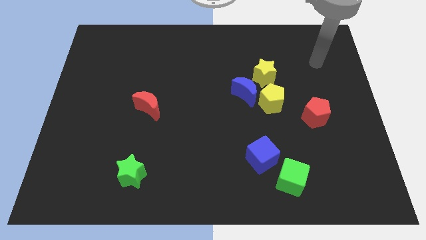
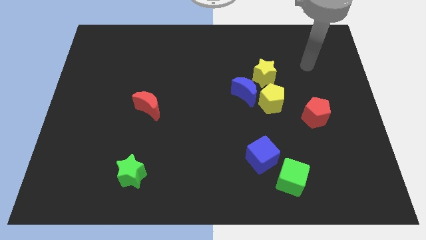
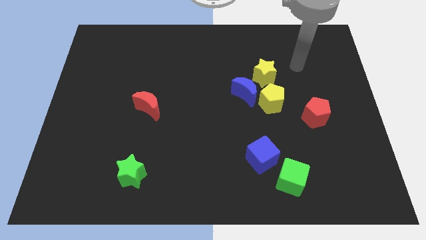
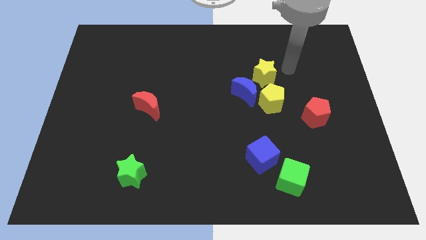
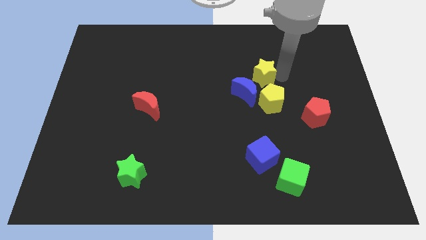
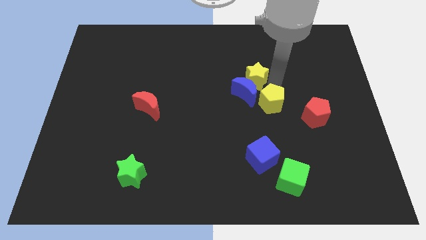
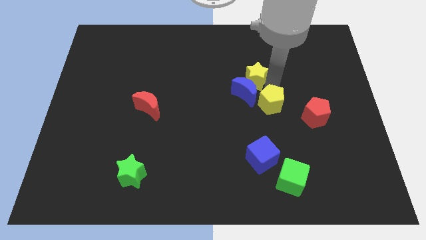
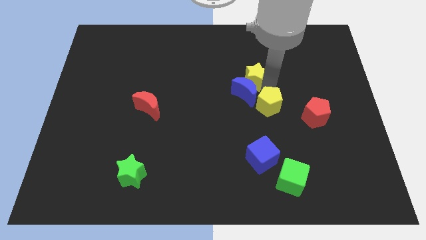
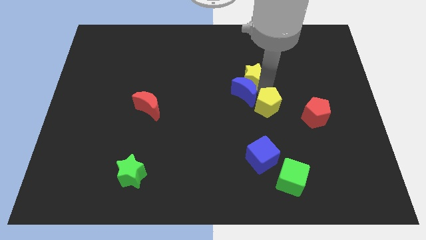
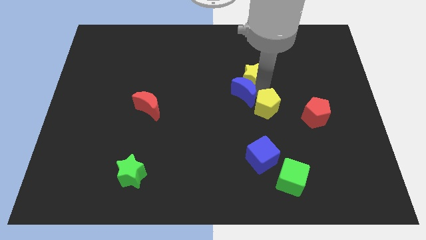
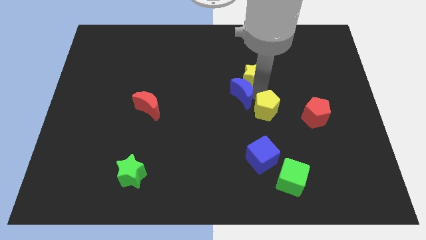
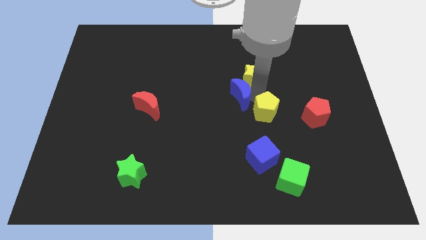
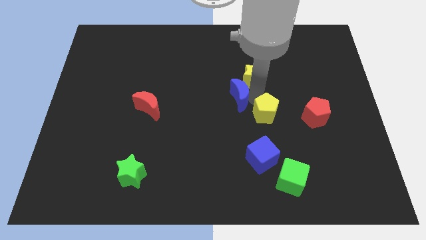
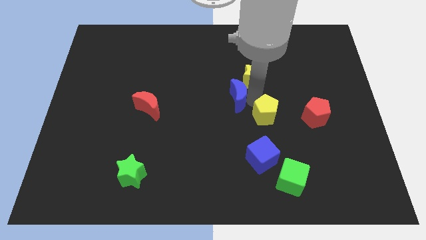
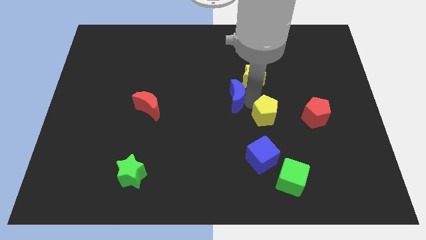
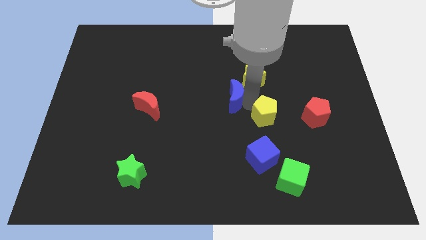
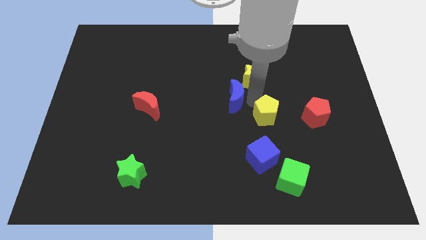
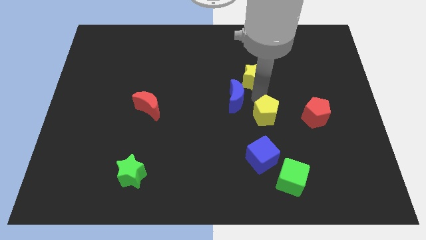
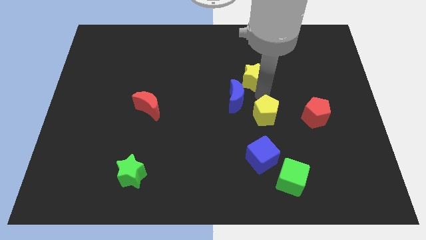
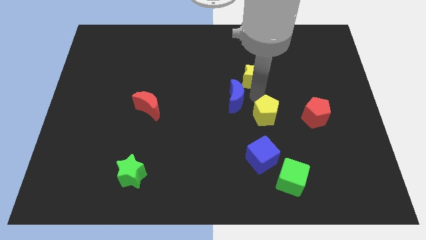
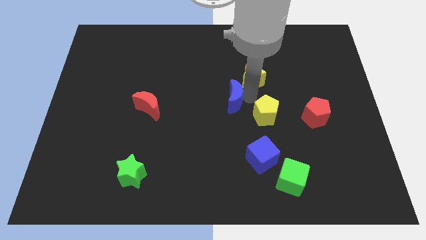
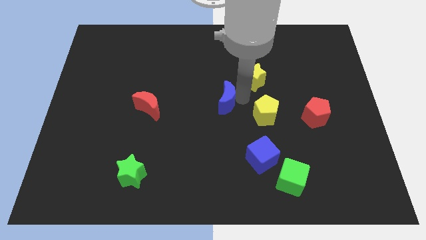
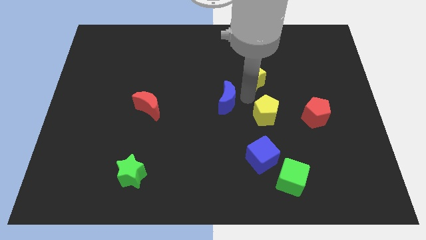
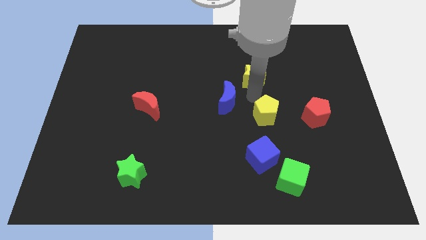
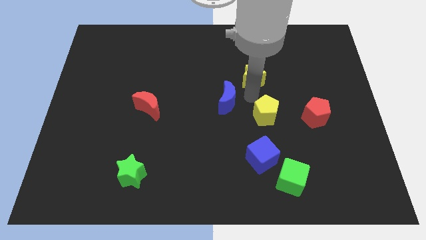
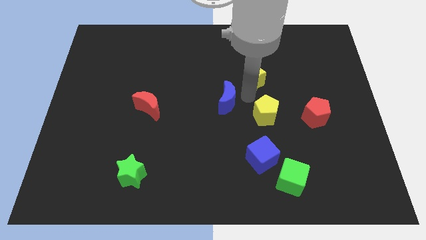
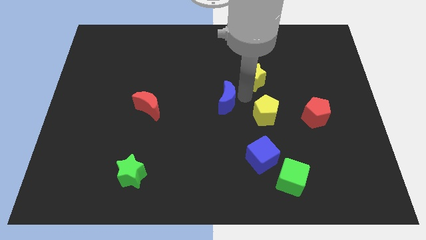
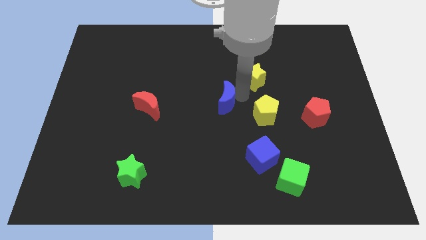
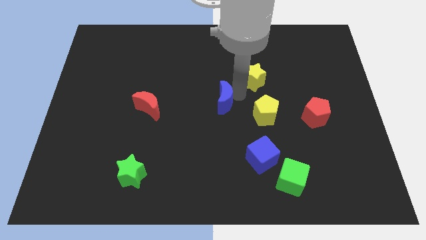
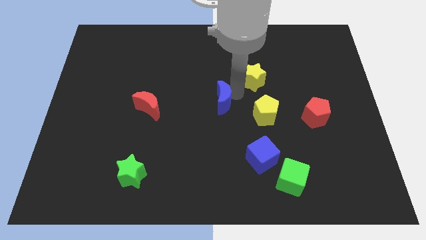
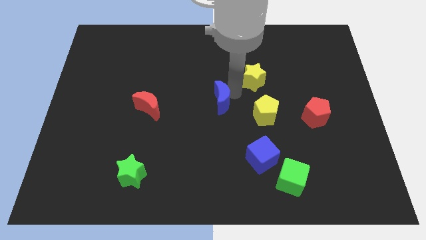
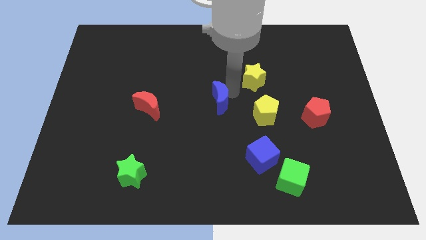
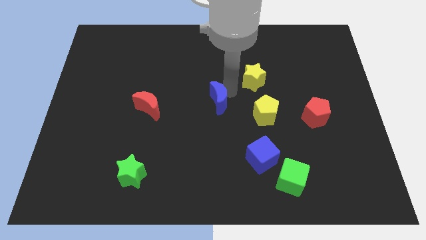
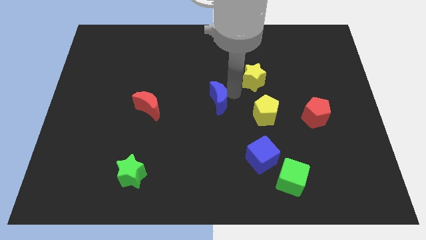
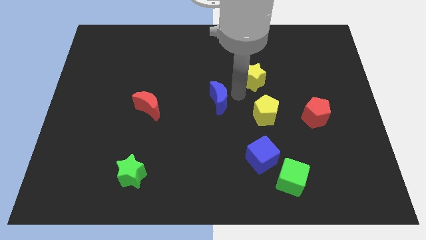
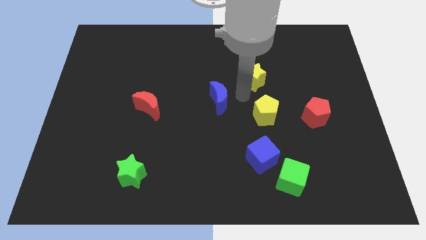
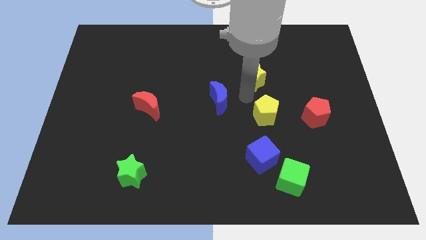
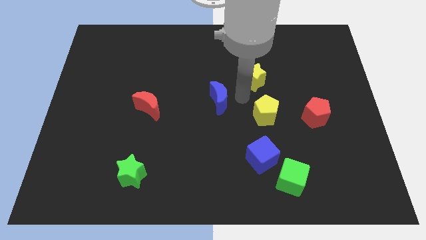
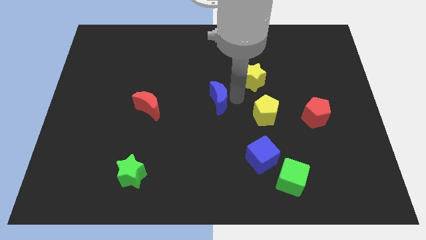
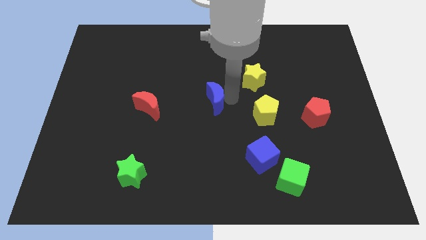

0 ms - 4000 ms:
move the blue moon away from the yellow pentagon and yellow star

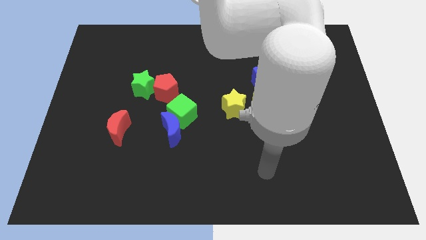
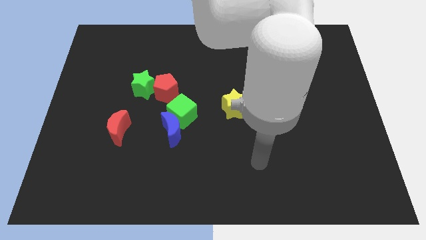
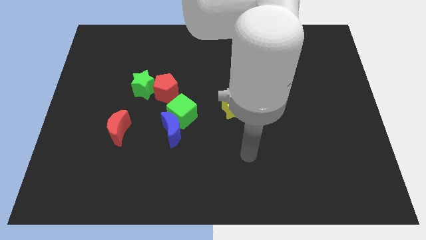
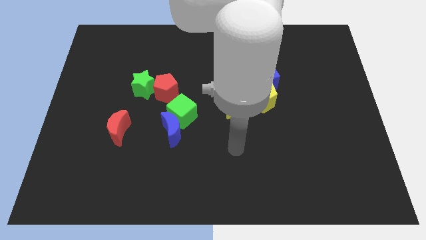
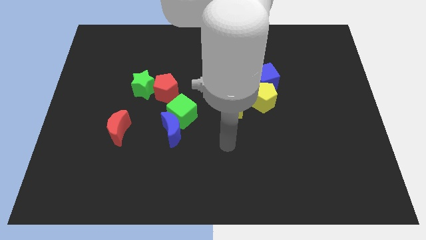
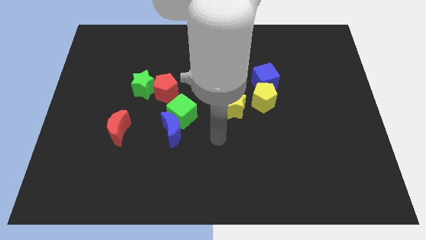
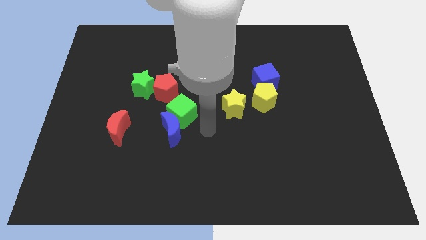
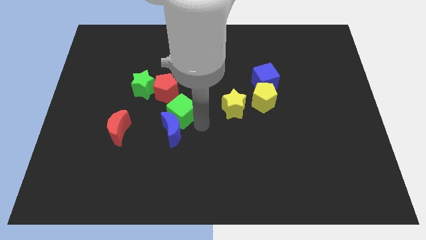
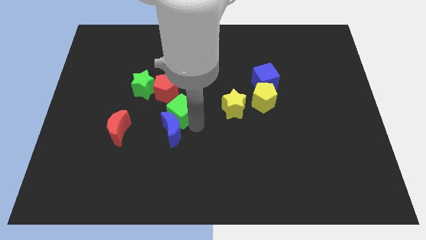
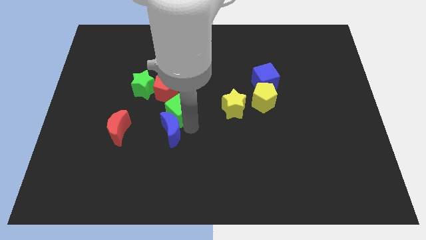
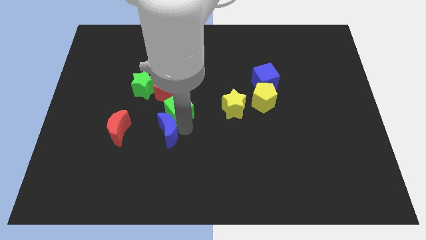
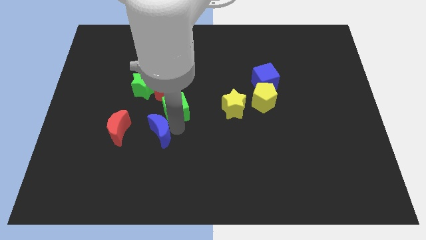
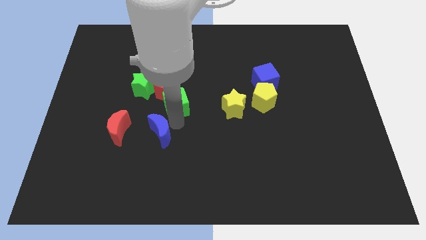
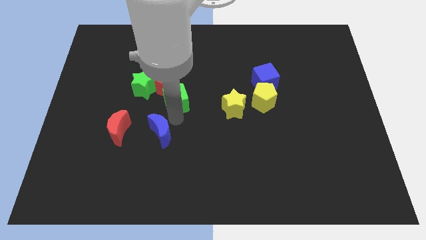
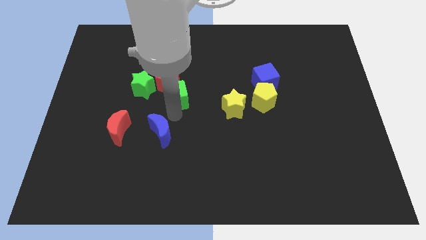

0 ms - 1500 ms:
move the blue moon away from the green cube

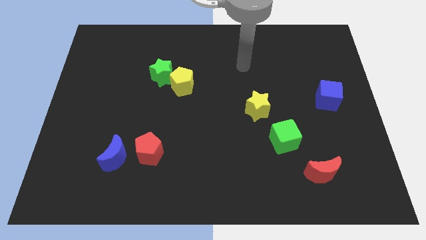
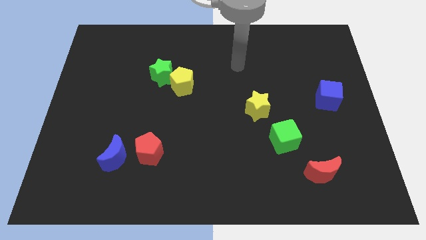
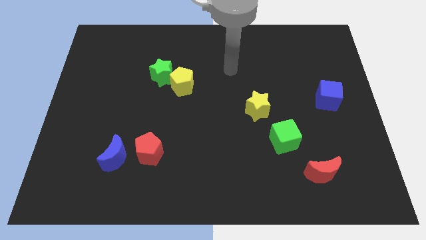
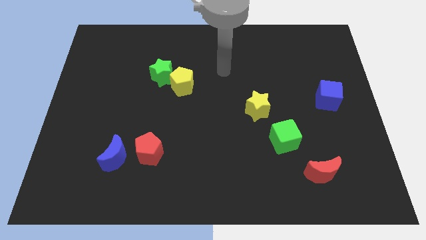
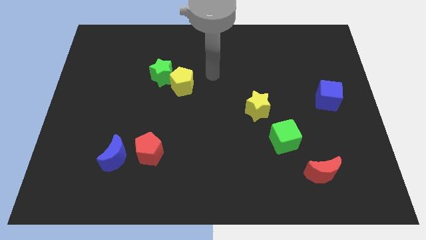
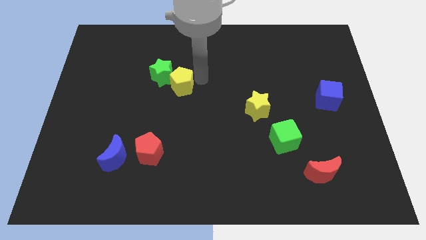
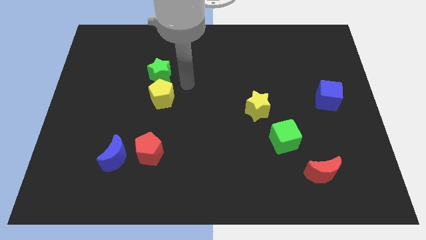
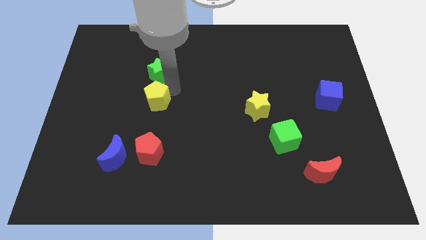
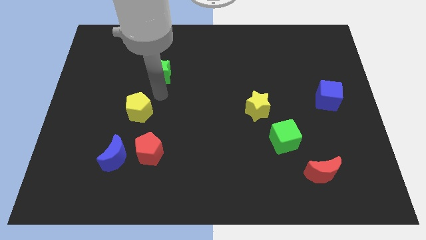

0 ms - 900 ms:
separate the green star from the yellow pentagon

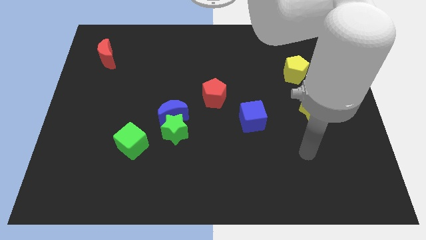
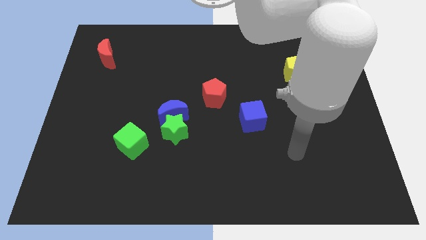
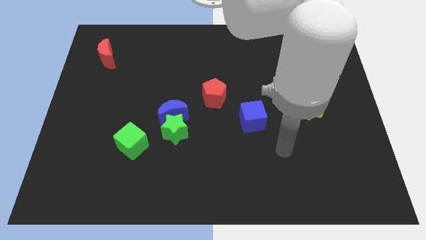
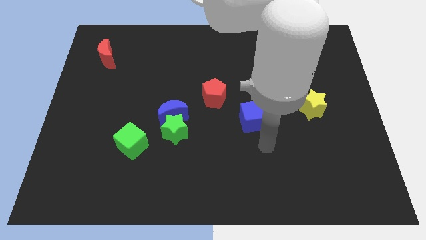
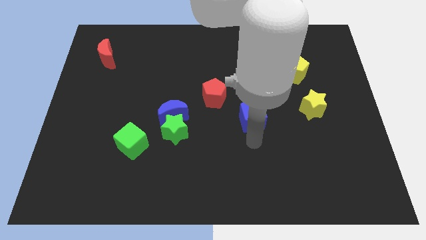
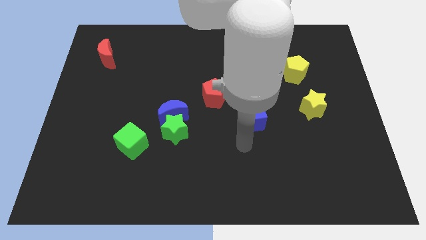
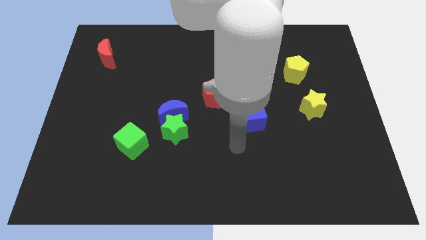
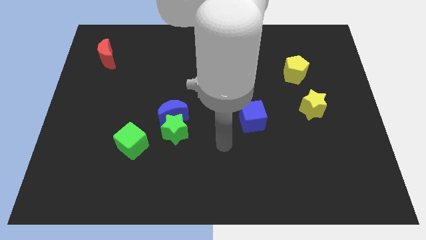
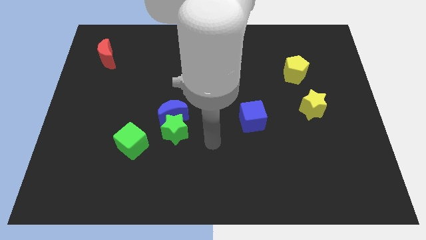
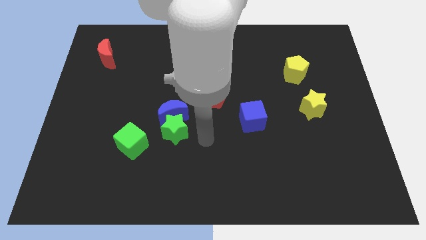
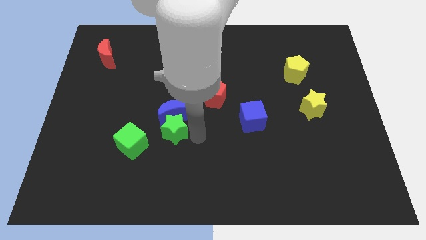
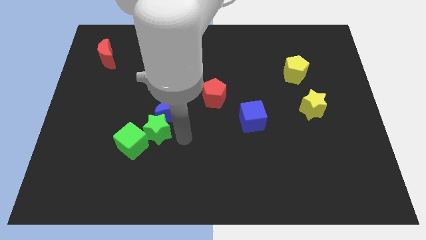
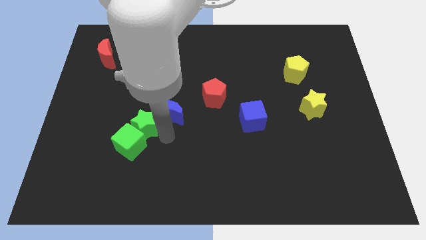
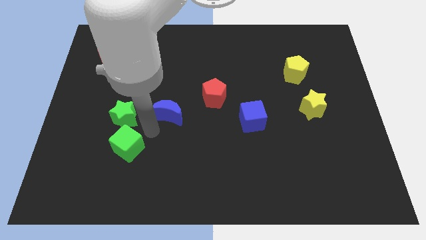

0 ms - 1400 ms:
pull the blue moon apart from the green star

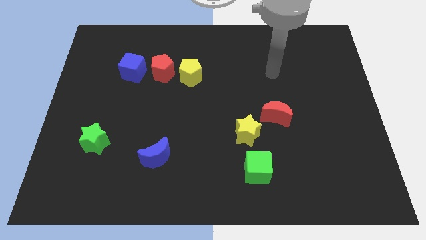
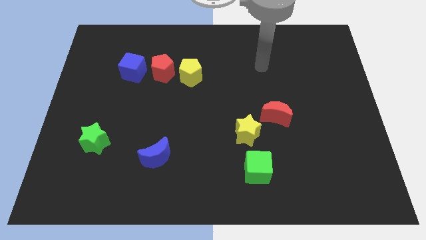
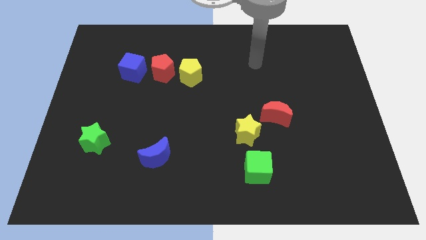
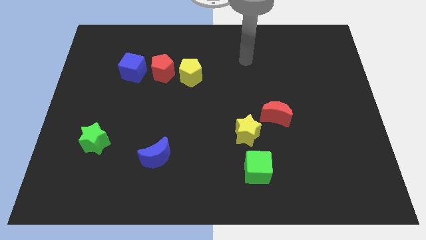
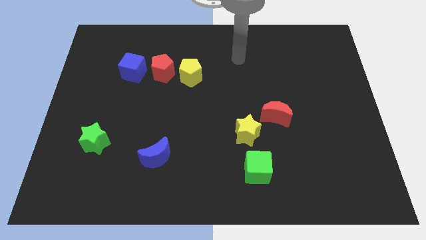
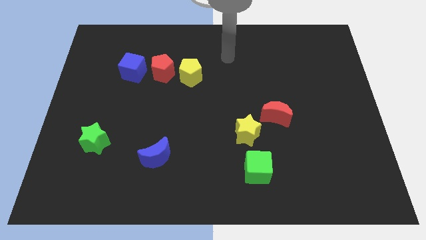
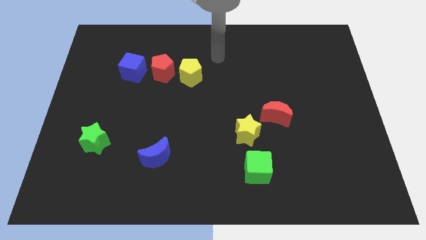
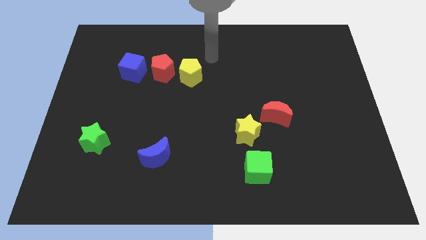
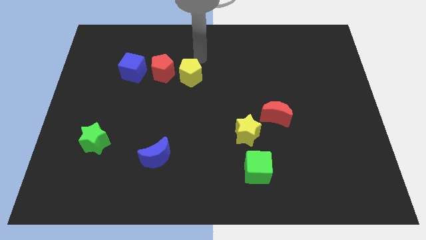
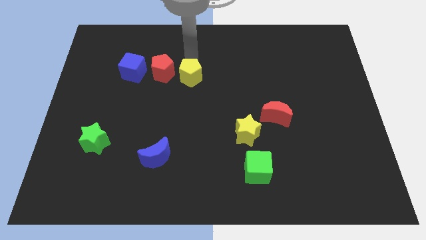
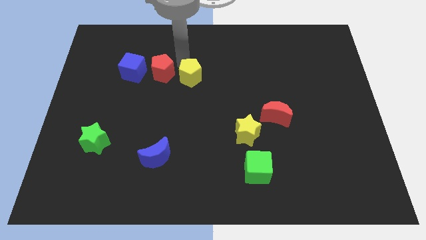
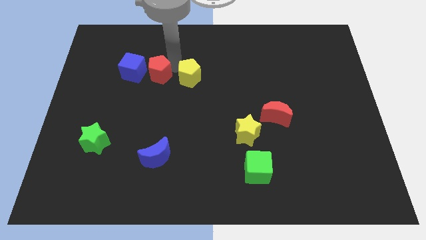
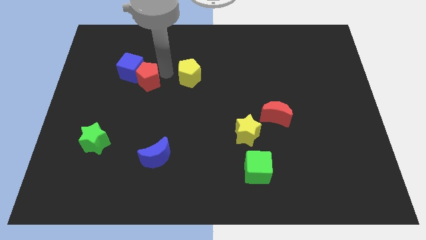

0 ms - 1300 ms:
move the yellow pentagon away from the red pentagon

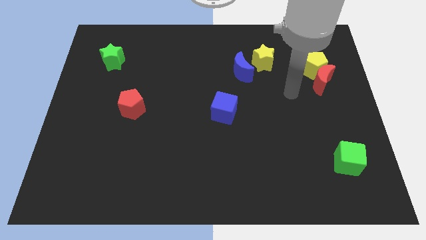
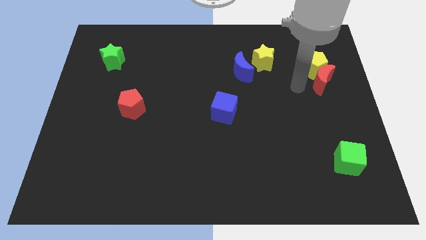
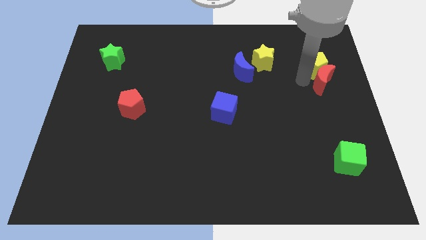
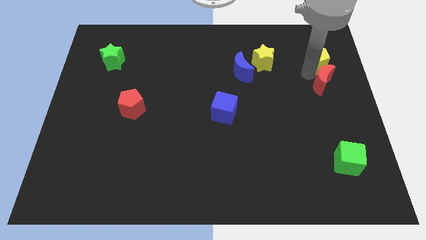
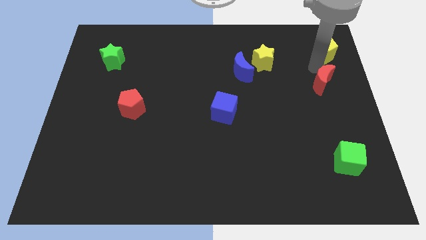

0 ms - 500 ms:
pull the red moon apart from the yellow pentagon
